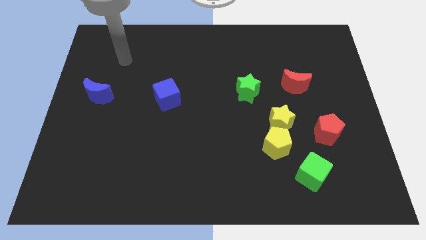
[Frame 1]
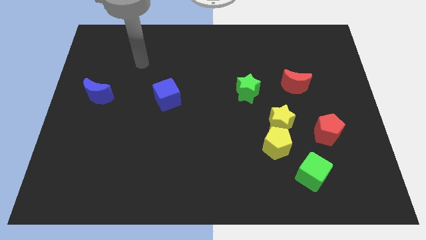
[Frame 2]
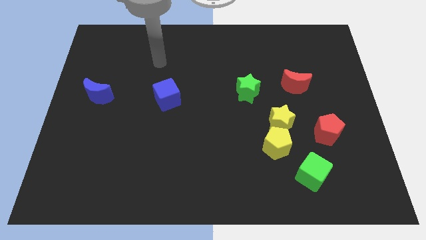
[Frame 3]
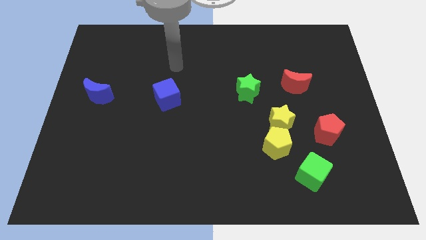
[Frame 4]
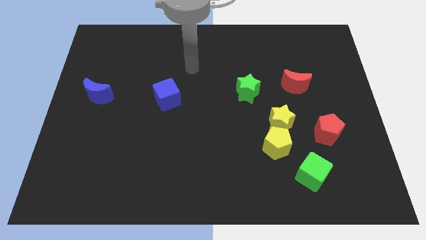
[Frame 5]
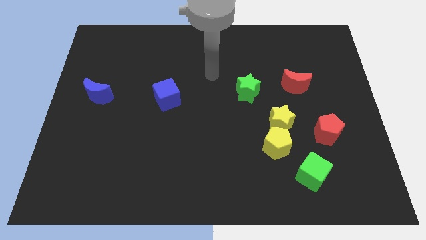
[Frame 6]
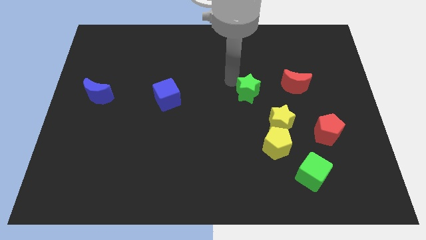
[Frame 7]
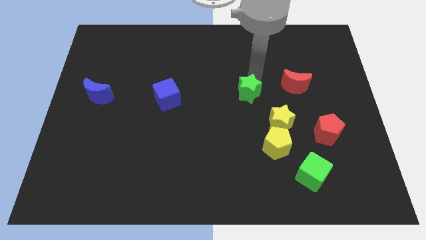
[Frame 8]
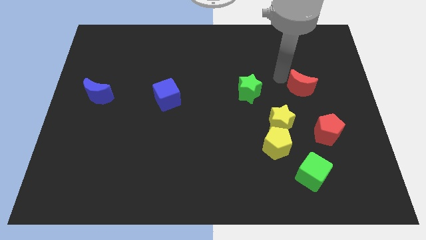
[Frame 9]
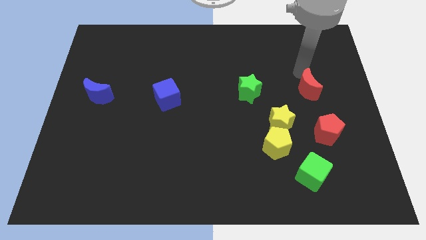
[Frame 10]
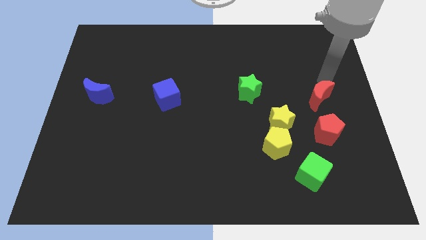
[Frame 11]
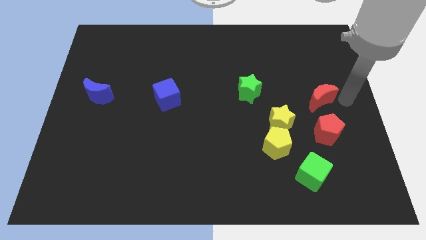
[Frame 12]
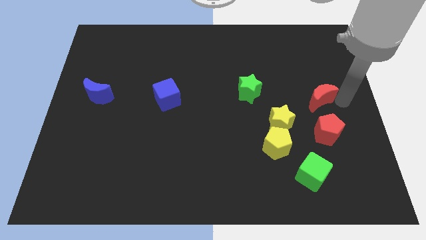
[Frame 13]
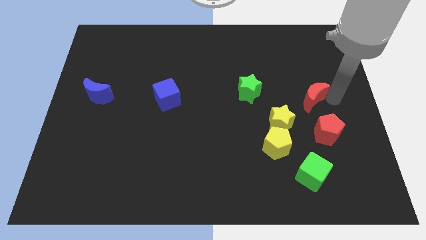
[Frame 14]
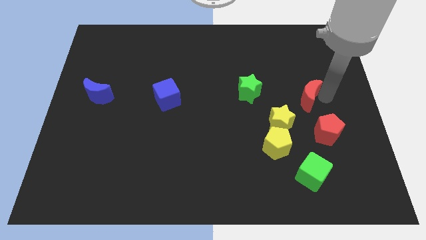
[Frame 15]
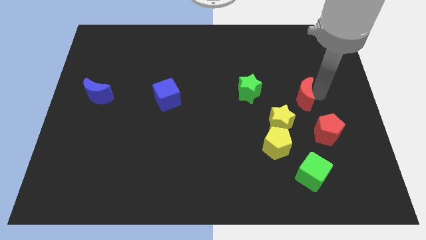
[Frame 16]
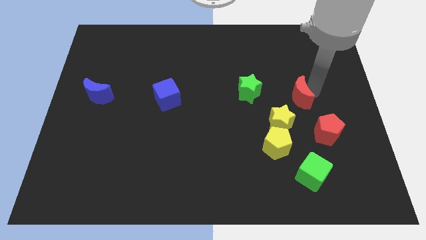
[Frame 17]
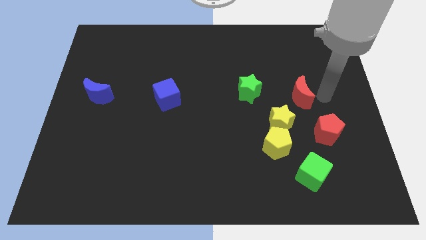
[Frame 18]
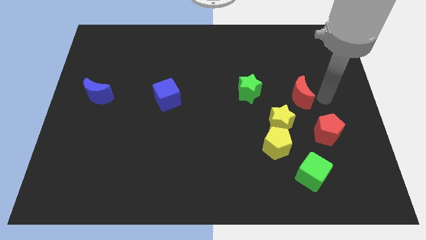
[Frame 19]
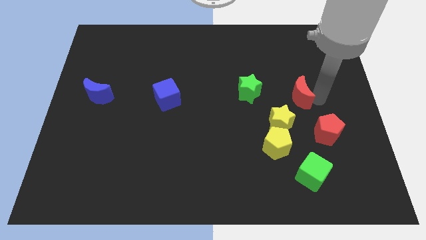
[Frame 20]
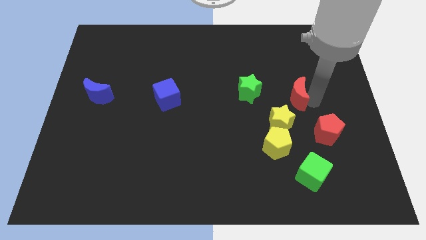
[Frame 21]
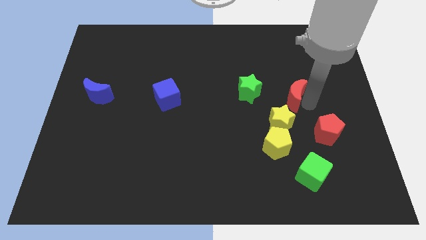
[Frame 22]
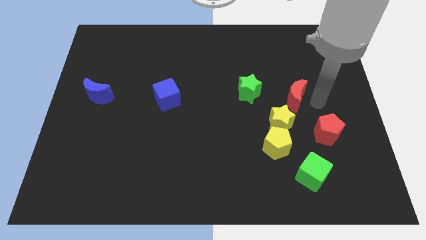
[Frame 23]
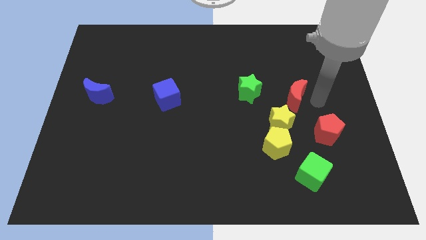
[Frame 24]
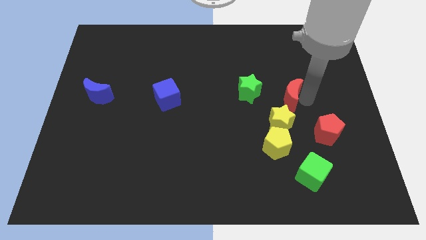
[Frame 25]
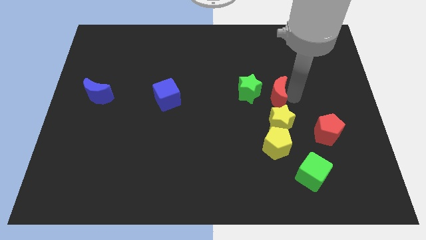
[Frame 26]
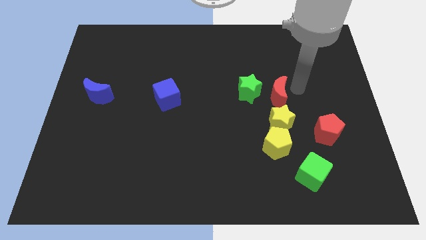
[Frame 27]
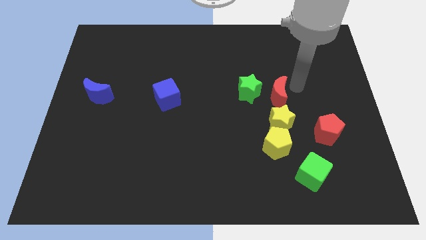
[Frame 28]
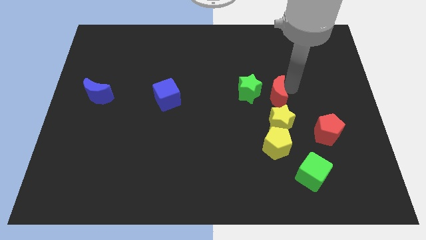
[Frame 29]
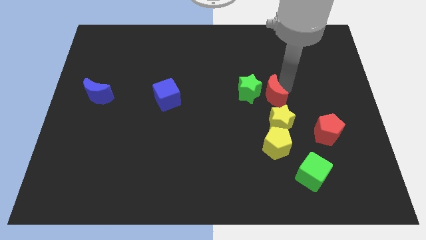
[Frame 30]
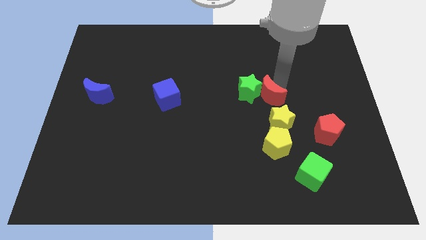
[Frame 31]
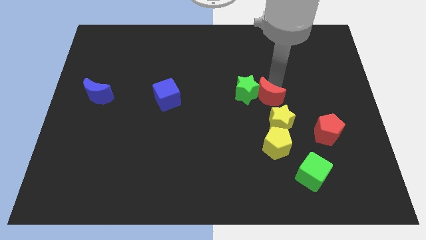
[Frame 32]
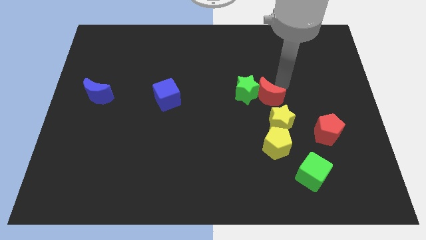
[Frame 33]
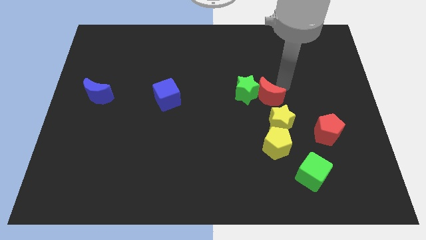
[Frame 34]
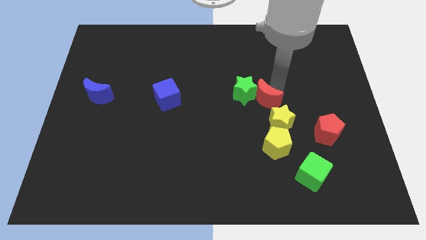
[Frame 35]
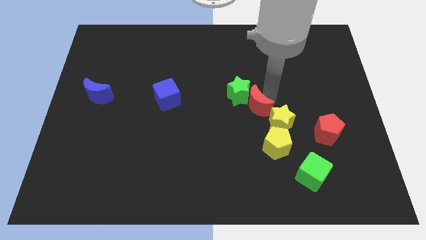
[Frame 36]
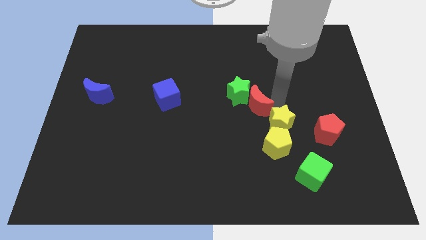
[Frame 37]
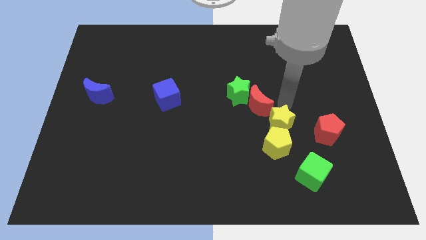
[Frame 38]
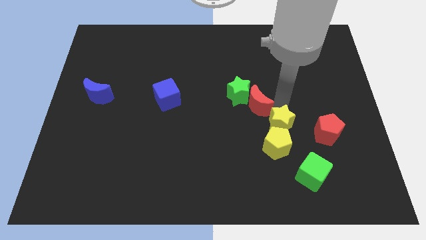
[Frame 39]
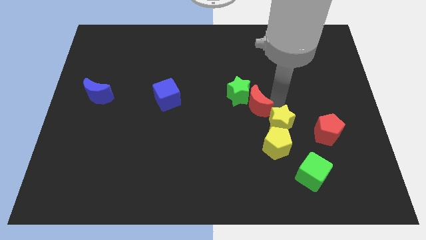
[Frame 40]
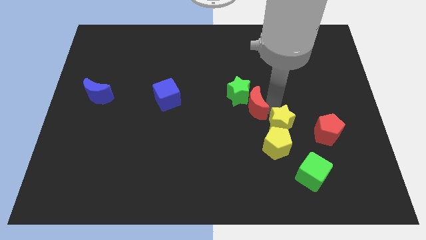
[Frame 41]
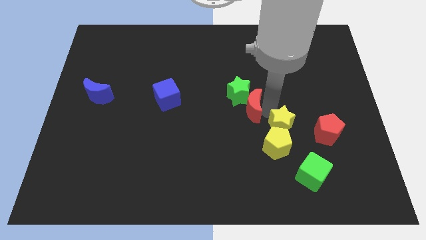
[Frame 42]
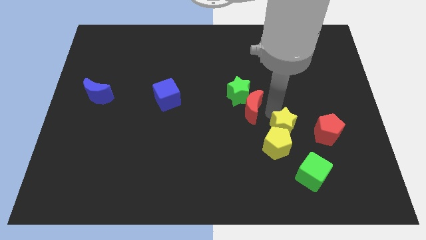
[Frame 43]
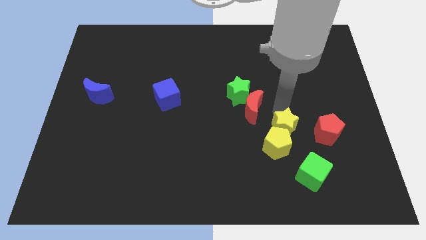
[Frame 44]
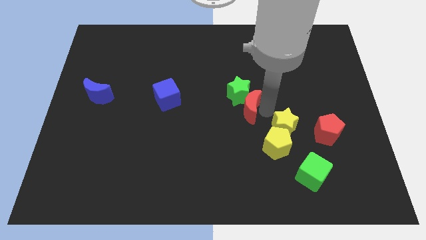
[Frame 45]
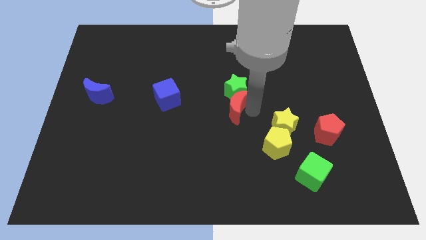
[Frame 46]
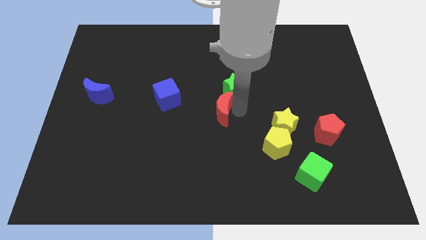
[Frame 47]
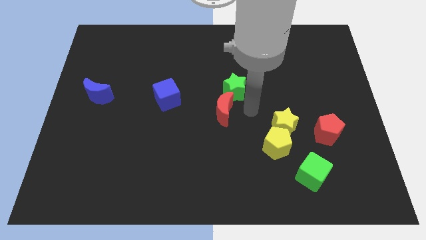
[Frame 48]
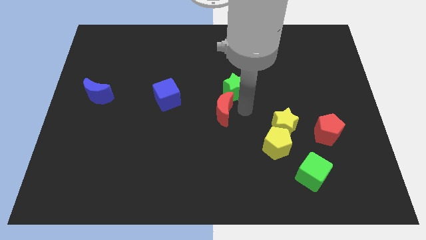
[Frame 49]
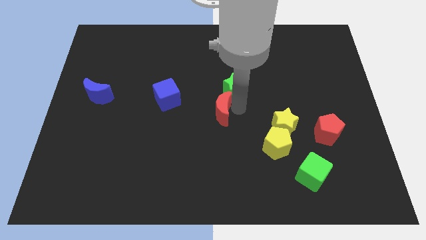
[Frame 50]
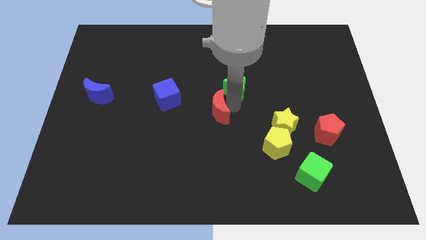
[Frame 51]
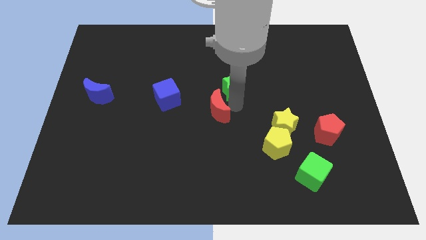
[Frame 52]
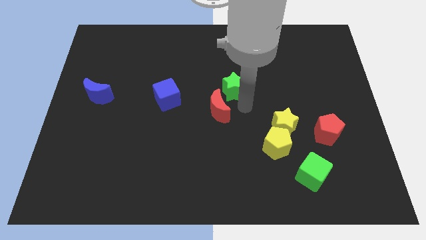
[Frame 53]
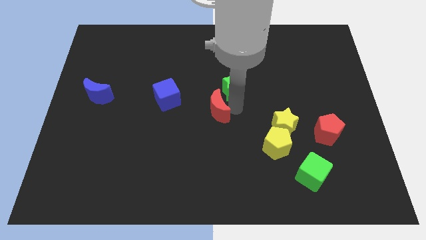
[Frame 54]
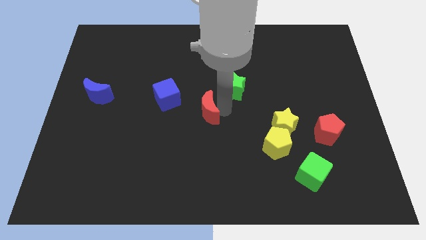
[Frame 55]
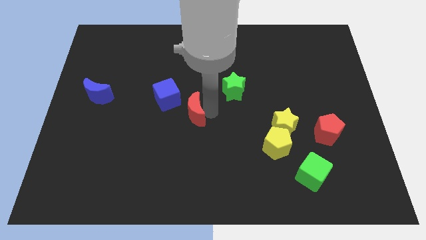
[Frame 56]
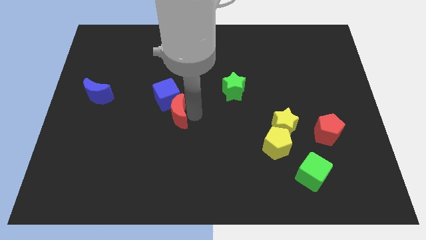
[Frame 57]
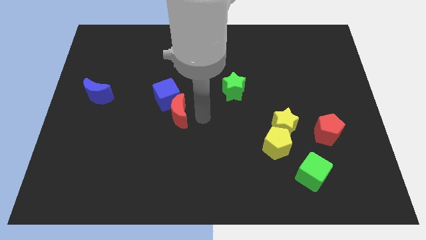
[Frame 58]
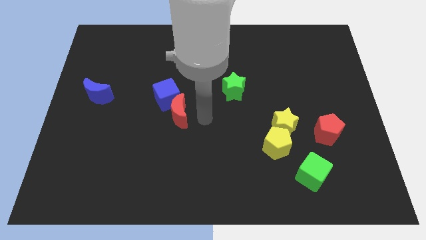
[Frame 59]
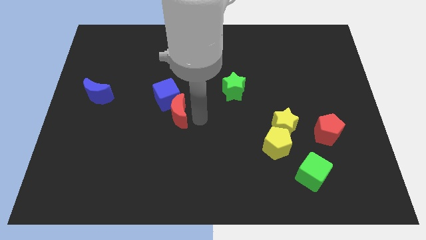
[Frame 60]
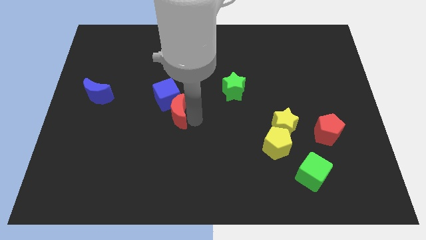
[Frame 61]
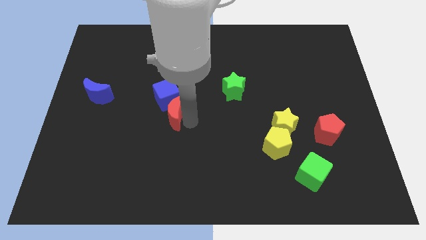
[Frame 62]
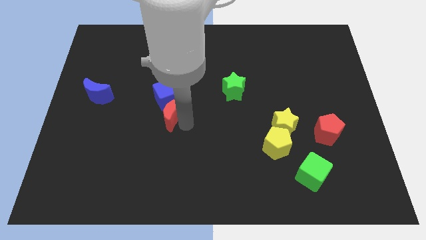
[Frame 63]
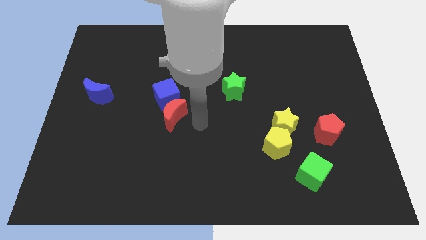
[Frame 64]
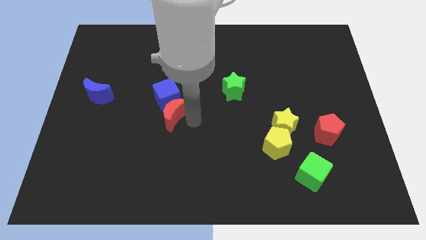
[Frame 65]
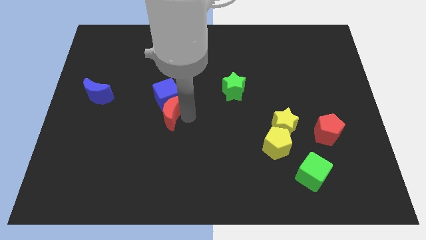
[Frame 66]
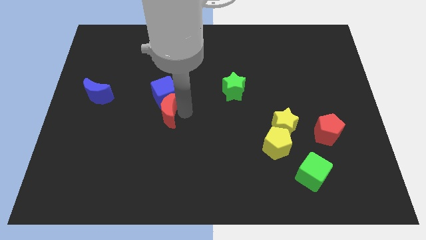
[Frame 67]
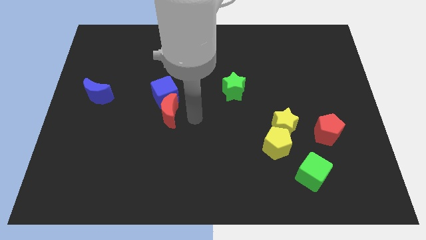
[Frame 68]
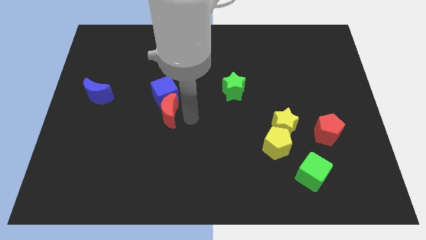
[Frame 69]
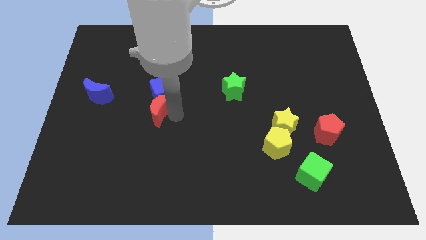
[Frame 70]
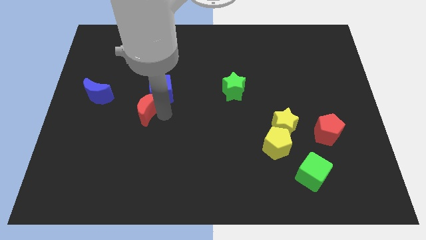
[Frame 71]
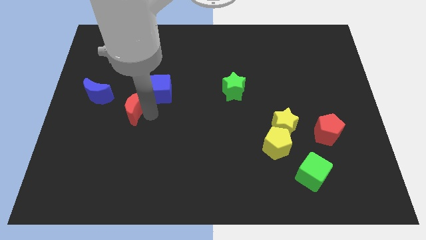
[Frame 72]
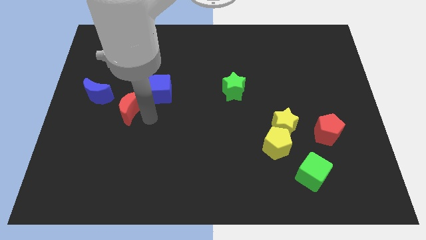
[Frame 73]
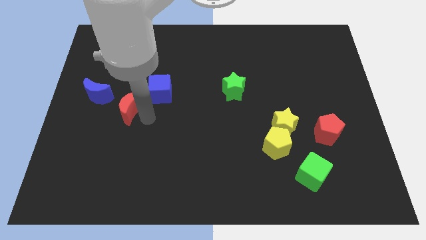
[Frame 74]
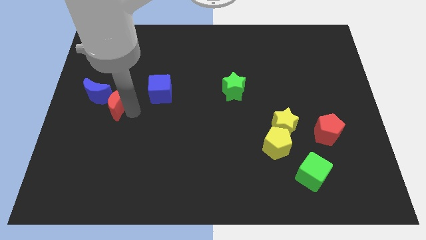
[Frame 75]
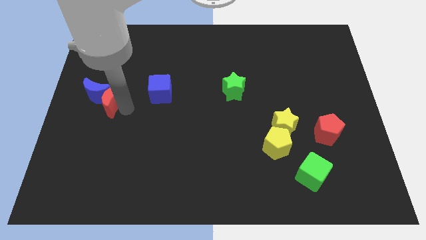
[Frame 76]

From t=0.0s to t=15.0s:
push the red moon to the blue moon
